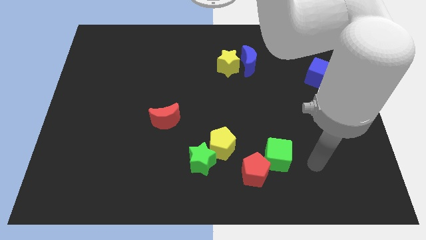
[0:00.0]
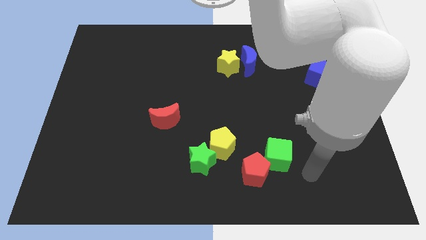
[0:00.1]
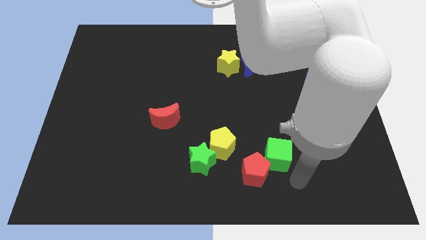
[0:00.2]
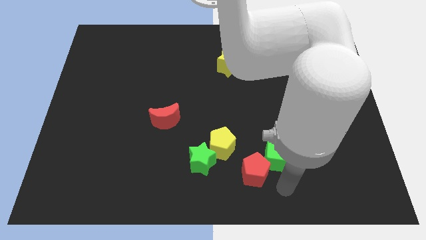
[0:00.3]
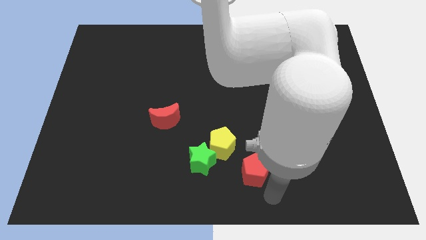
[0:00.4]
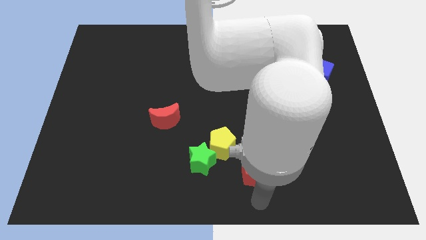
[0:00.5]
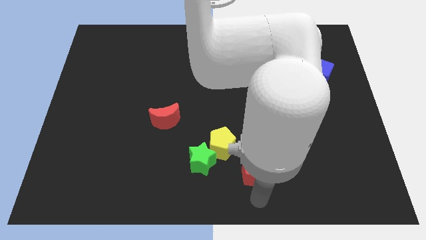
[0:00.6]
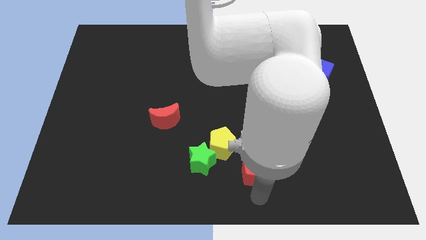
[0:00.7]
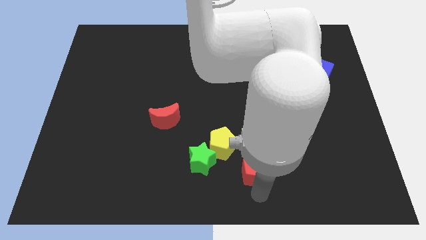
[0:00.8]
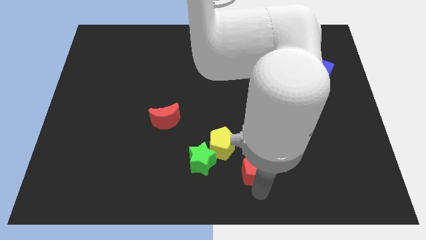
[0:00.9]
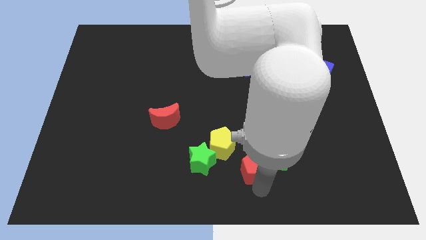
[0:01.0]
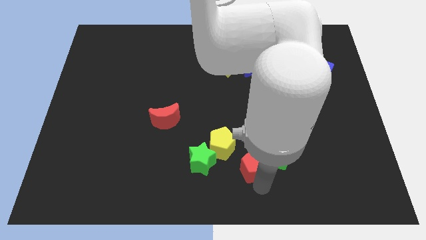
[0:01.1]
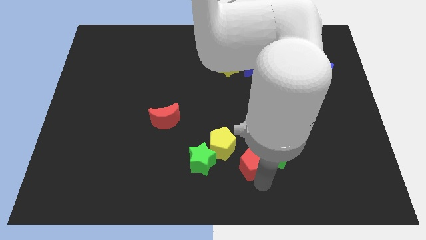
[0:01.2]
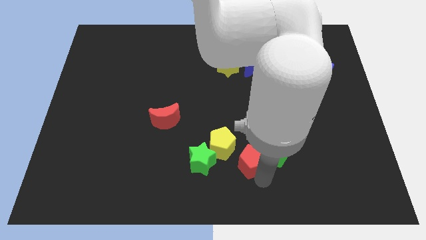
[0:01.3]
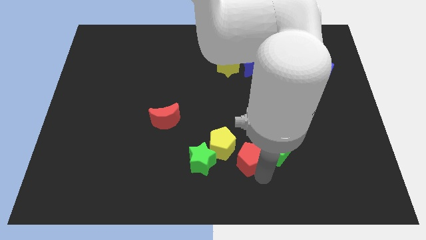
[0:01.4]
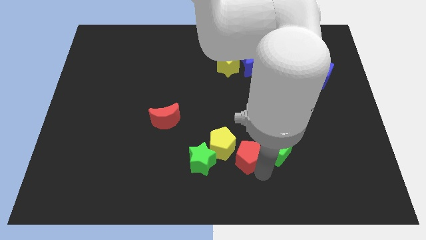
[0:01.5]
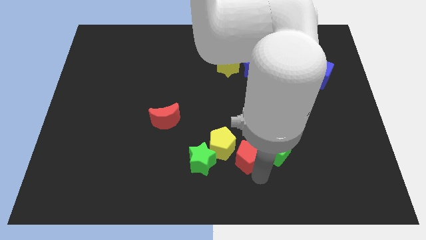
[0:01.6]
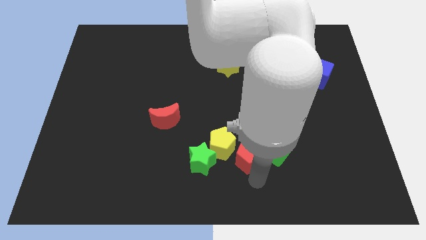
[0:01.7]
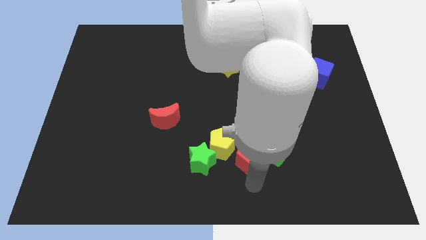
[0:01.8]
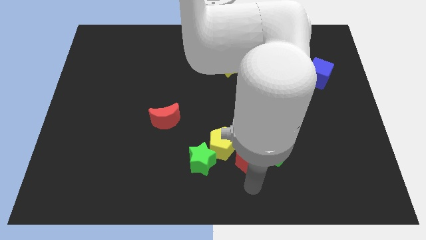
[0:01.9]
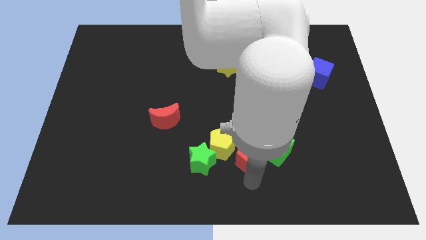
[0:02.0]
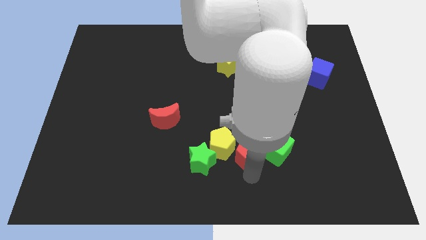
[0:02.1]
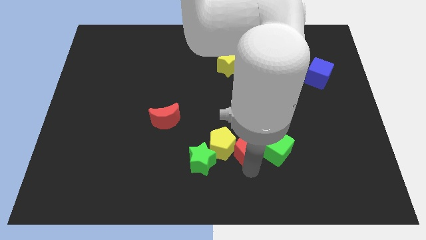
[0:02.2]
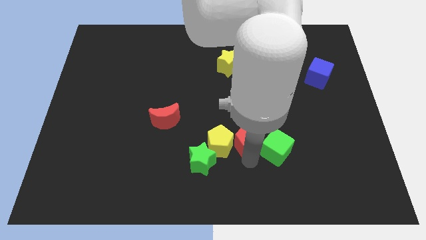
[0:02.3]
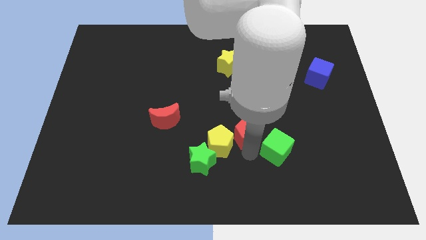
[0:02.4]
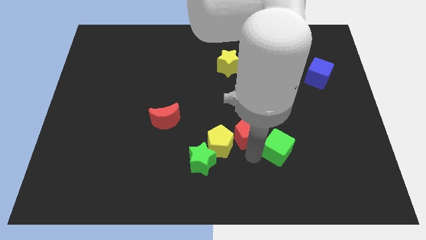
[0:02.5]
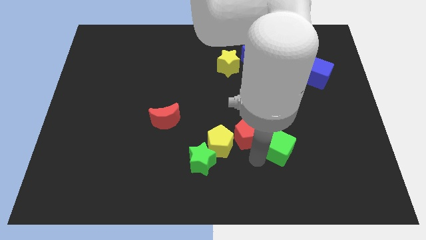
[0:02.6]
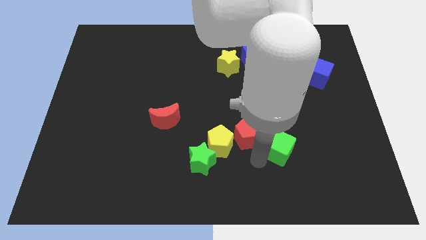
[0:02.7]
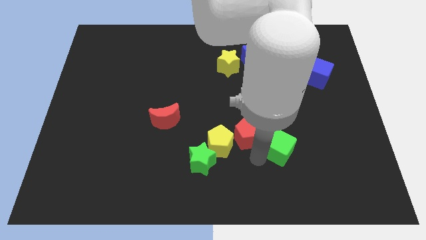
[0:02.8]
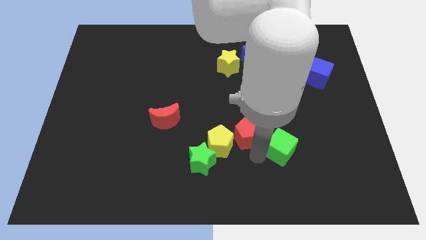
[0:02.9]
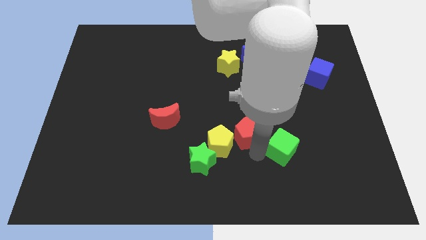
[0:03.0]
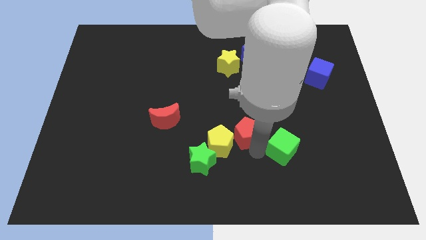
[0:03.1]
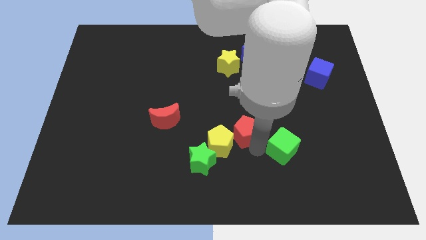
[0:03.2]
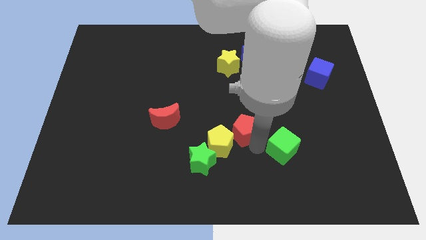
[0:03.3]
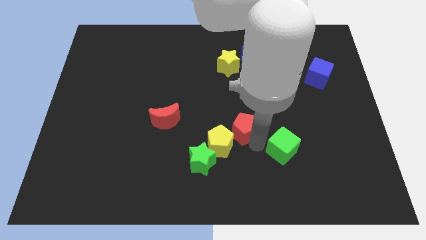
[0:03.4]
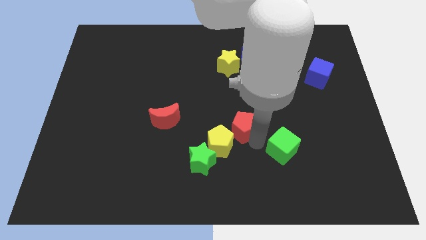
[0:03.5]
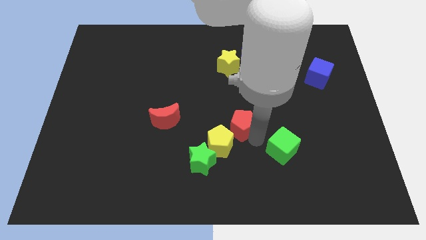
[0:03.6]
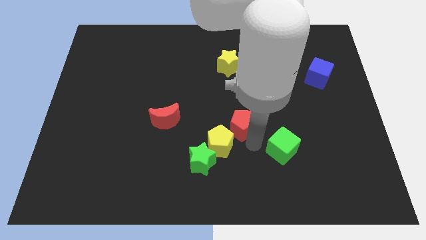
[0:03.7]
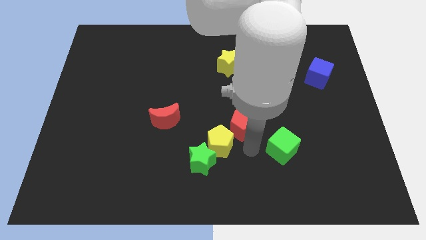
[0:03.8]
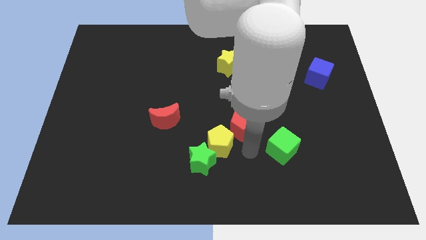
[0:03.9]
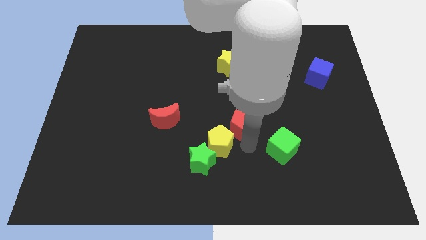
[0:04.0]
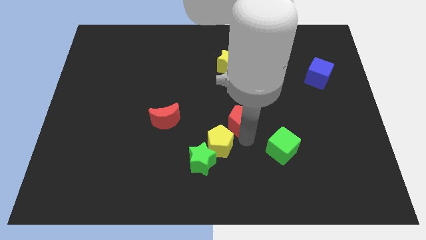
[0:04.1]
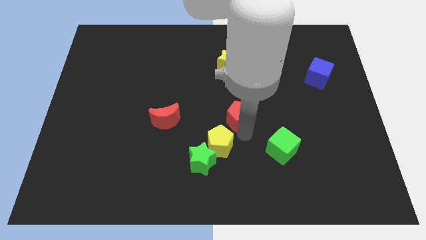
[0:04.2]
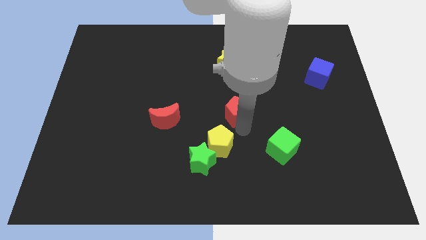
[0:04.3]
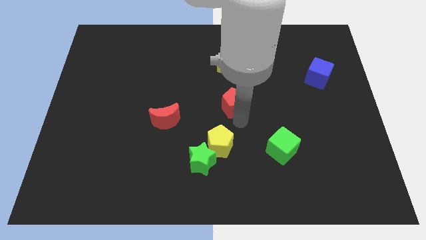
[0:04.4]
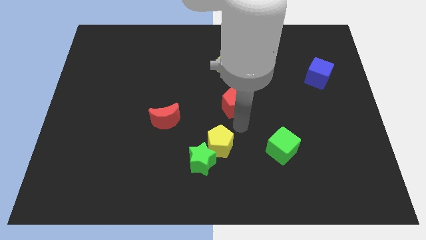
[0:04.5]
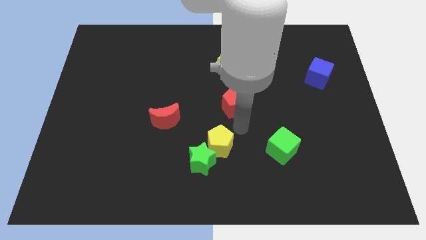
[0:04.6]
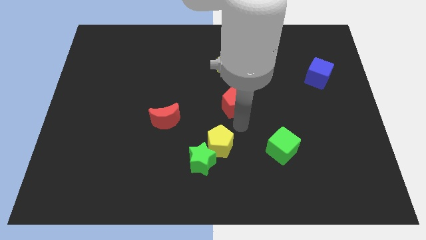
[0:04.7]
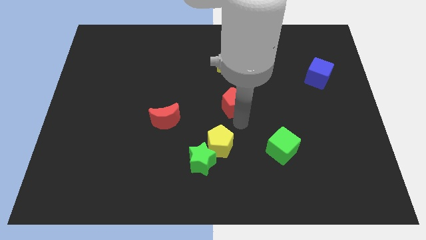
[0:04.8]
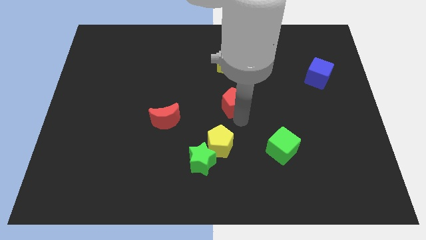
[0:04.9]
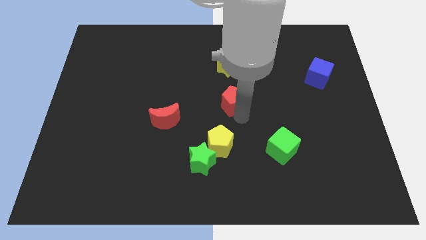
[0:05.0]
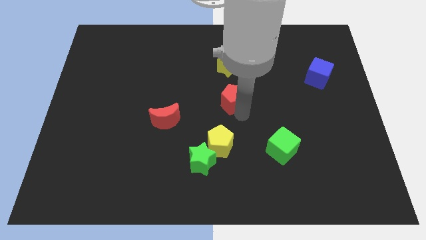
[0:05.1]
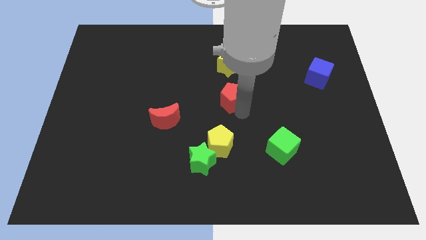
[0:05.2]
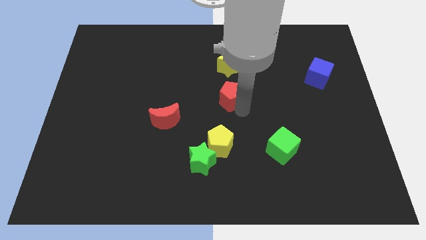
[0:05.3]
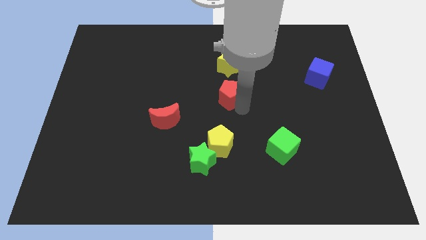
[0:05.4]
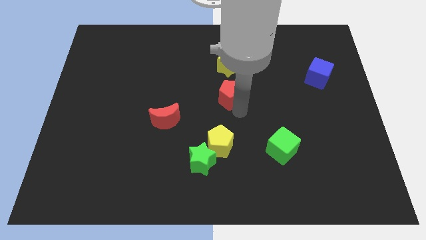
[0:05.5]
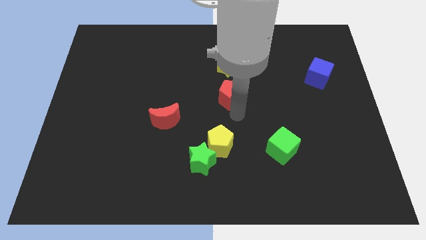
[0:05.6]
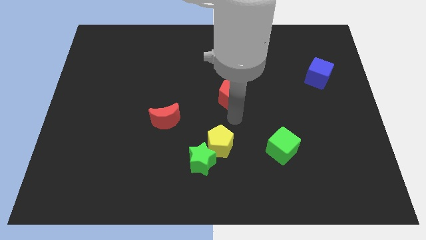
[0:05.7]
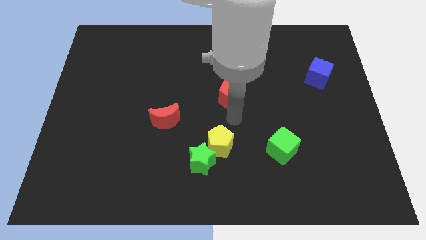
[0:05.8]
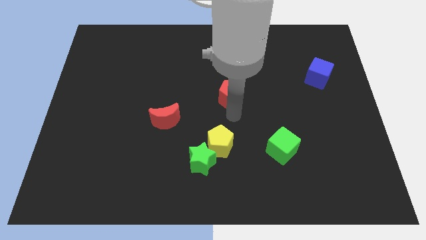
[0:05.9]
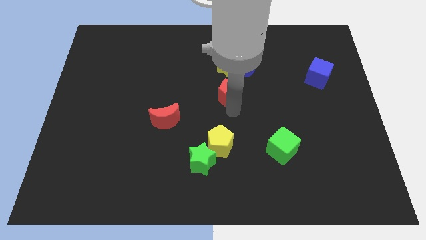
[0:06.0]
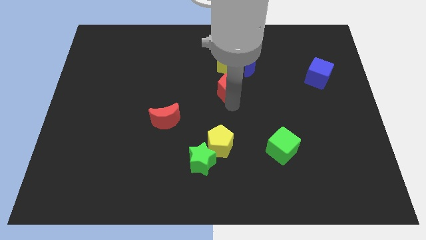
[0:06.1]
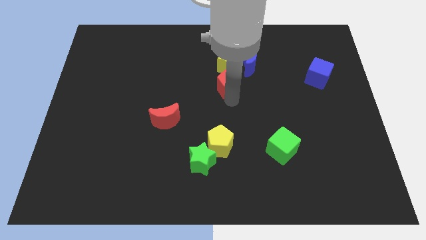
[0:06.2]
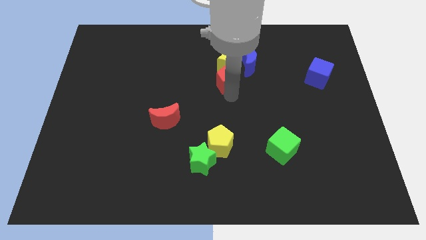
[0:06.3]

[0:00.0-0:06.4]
move the red pentagon close to the yellow star

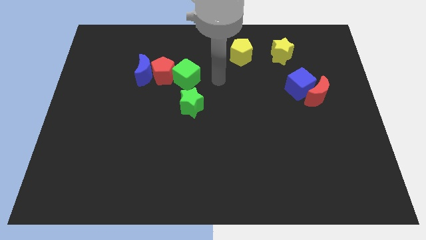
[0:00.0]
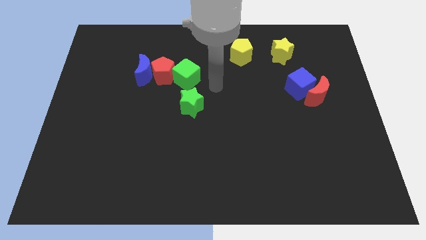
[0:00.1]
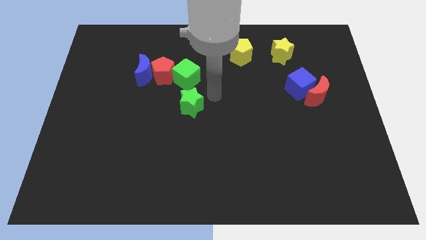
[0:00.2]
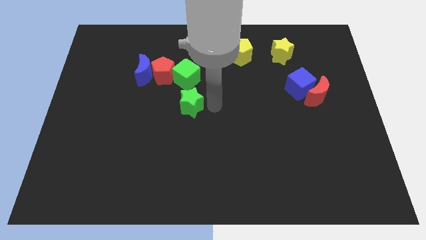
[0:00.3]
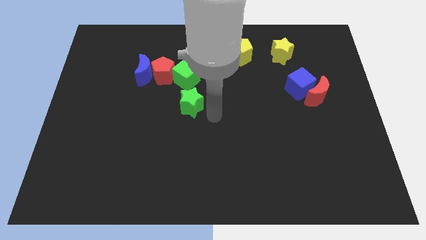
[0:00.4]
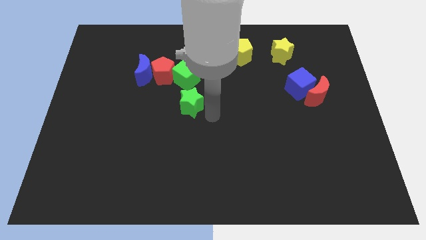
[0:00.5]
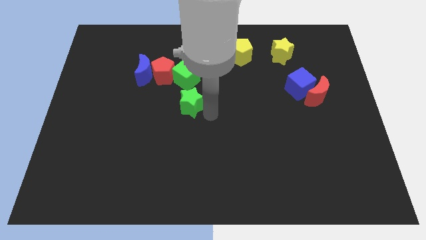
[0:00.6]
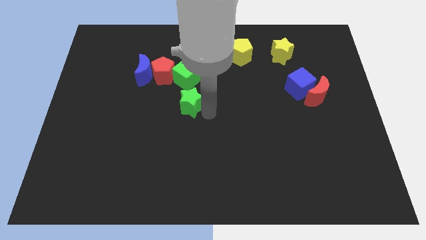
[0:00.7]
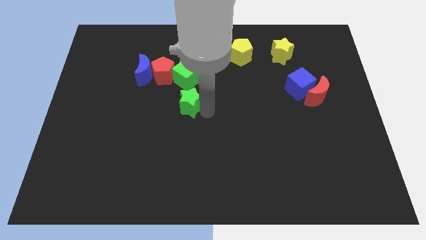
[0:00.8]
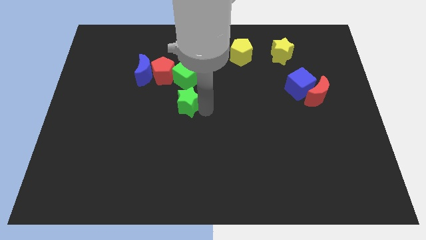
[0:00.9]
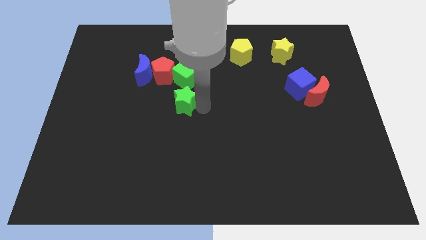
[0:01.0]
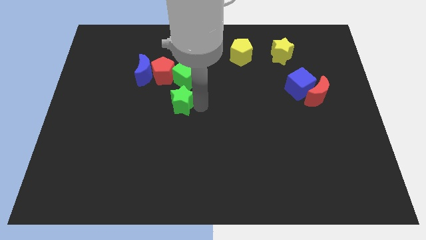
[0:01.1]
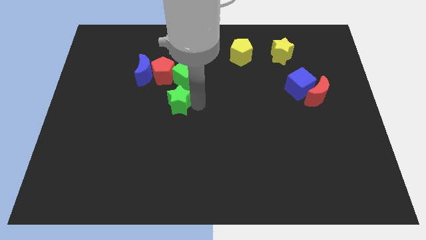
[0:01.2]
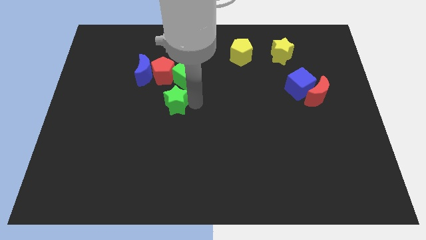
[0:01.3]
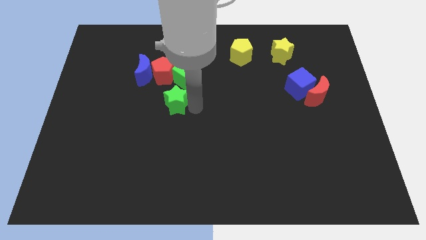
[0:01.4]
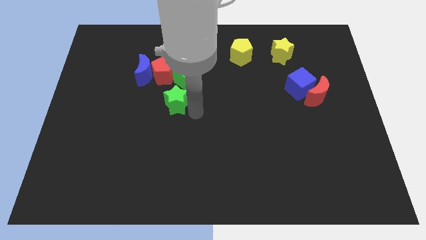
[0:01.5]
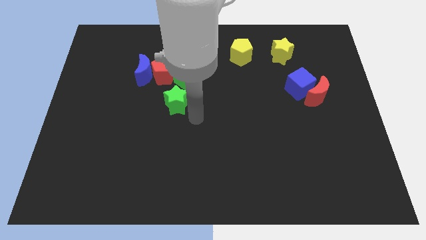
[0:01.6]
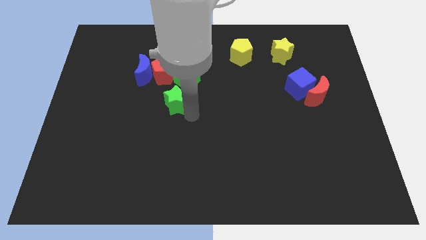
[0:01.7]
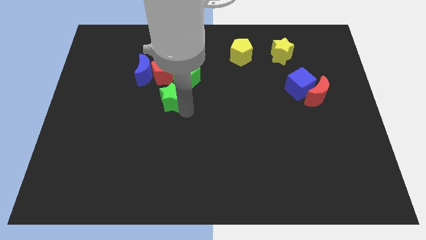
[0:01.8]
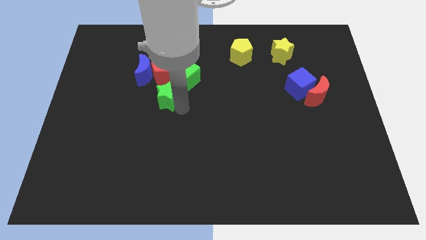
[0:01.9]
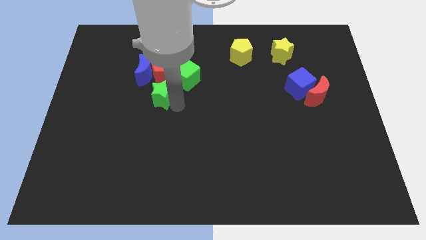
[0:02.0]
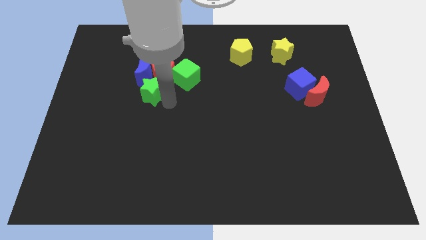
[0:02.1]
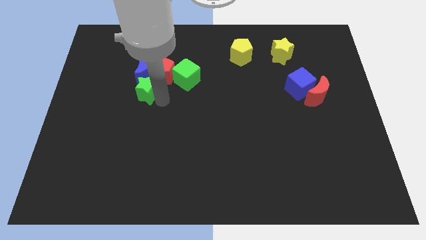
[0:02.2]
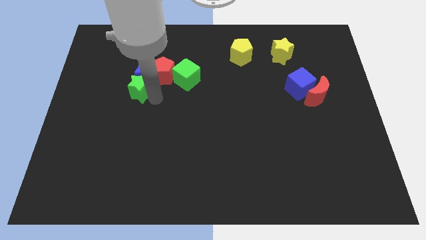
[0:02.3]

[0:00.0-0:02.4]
put the green star towards the blue moon
